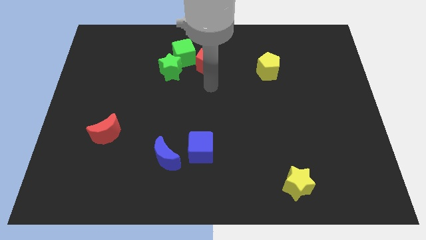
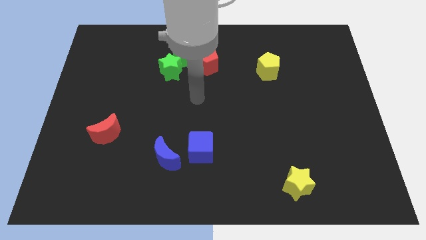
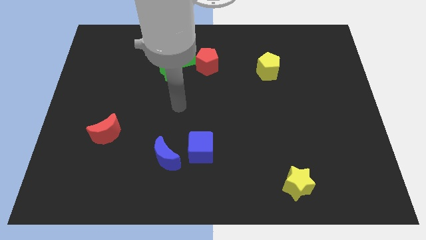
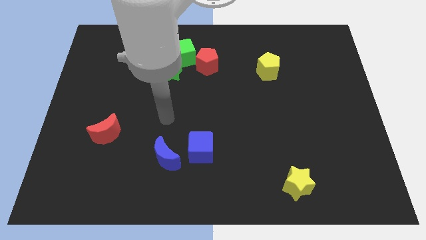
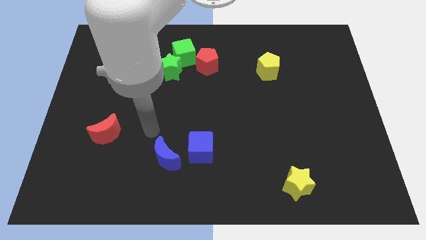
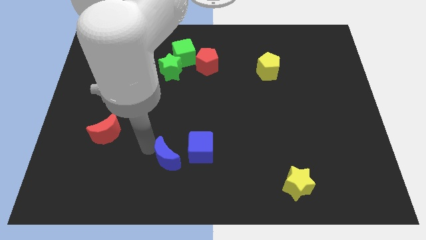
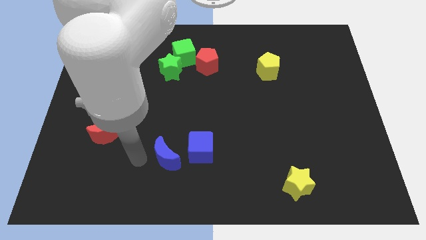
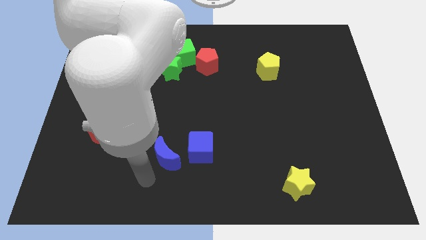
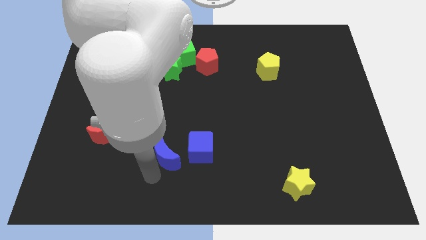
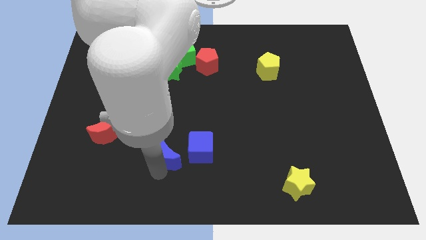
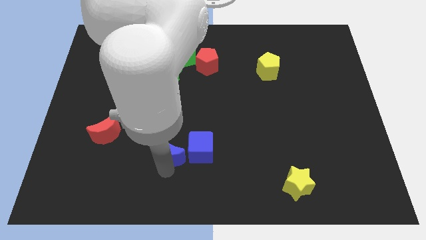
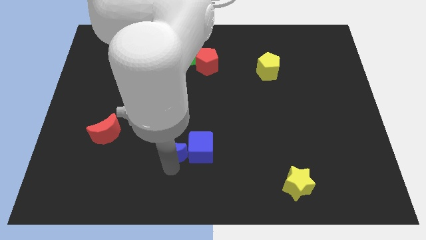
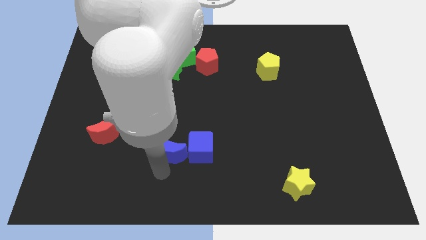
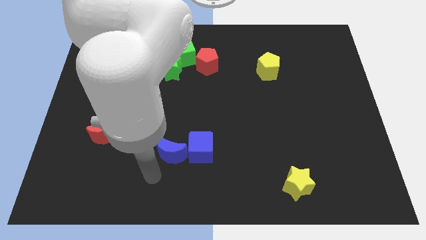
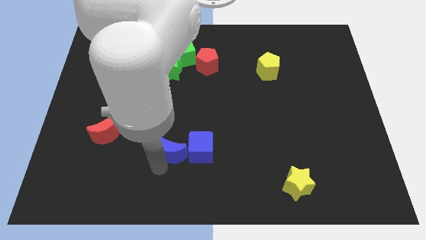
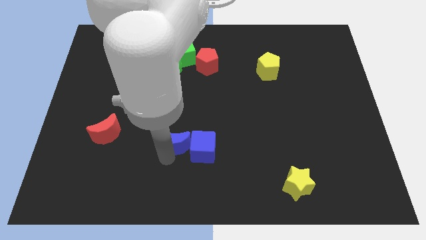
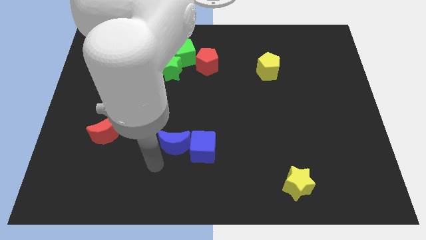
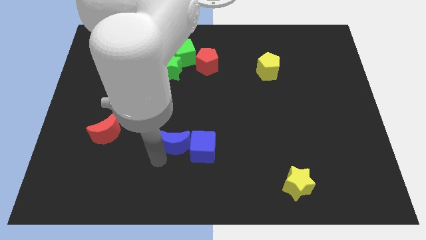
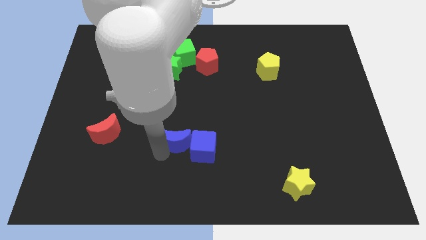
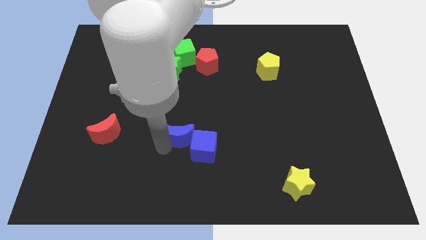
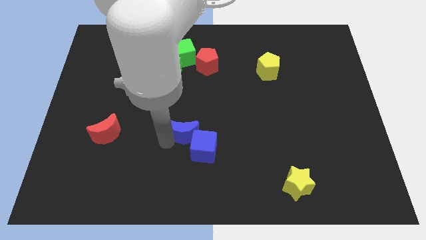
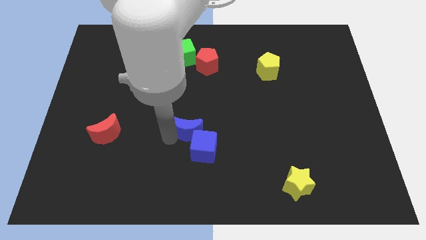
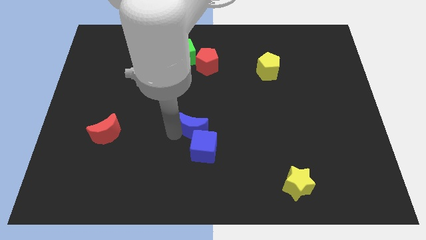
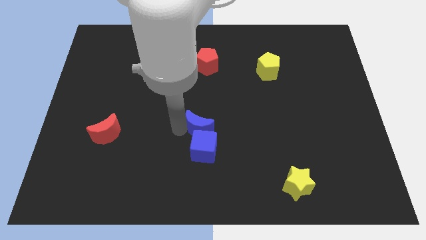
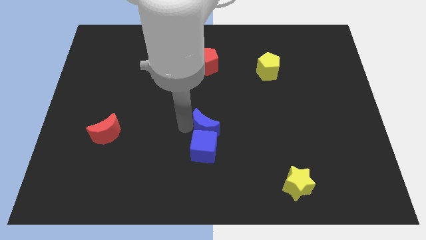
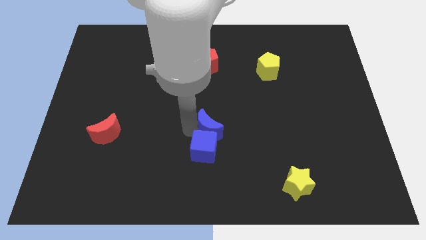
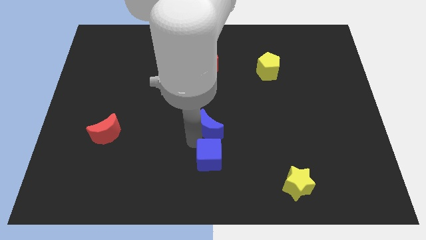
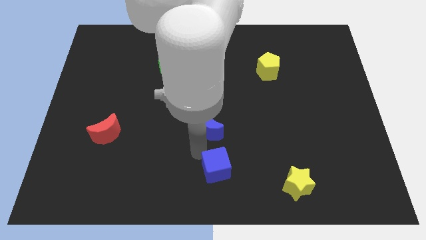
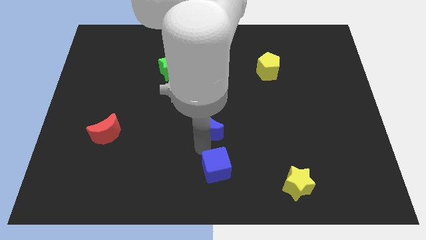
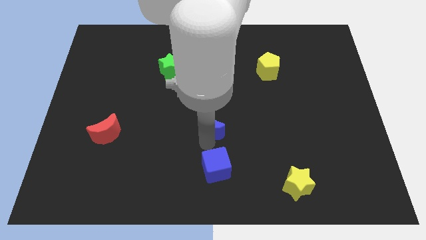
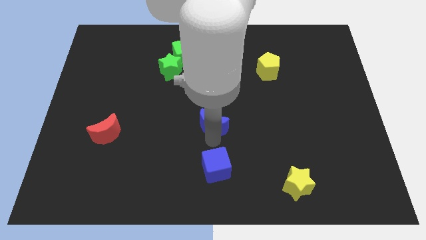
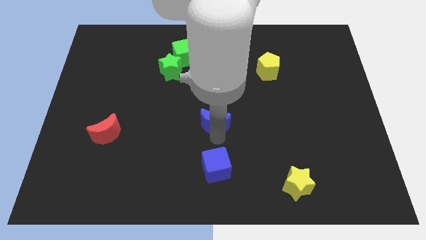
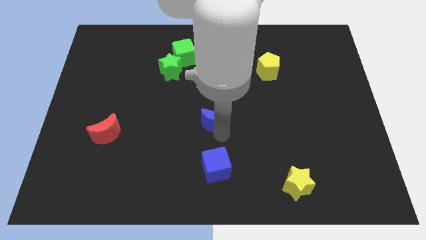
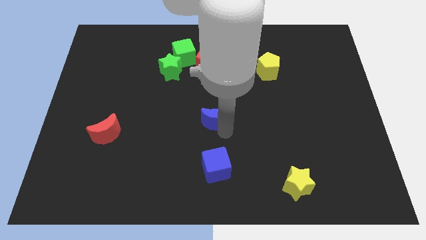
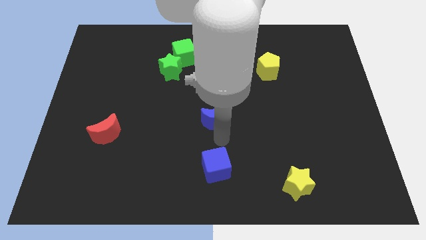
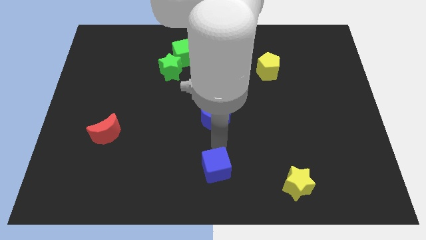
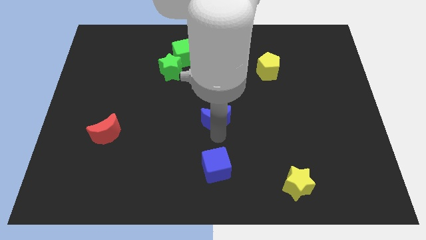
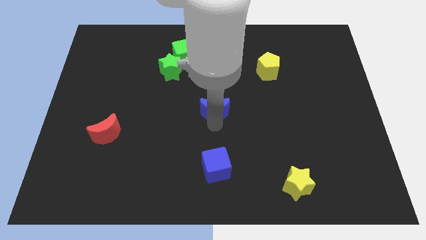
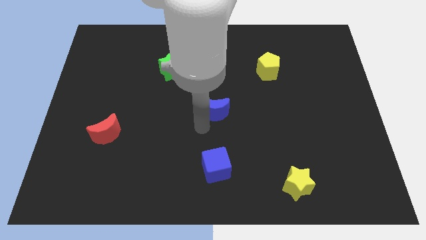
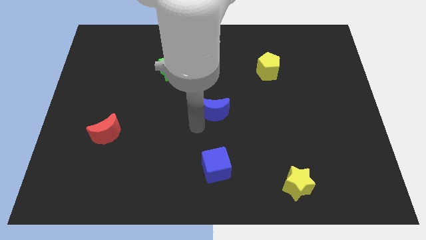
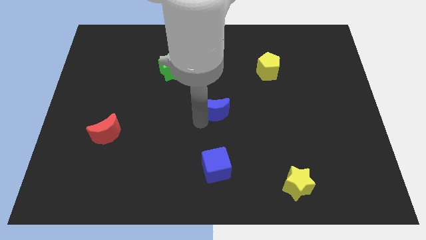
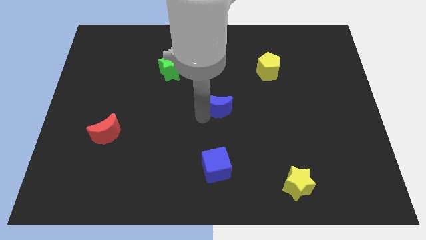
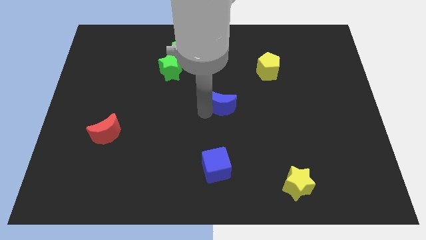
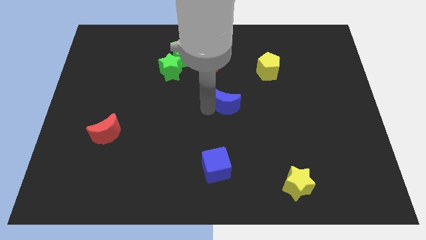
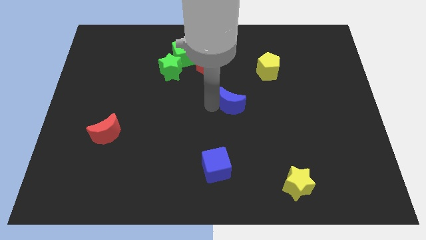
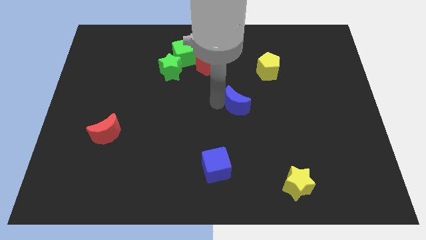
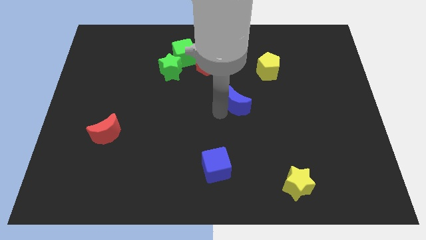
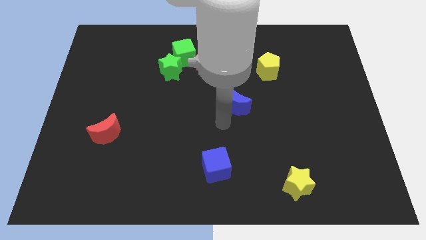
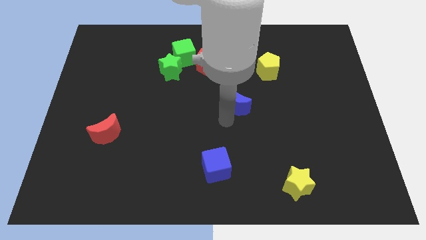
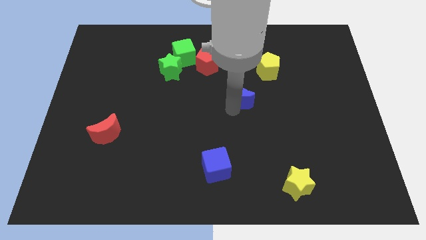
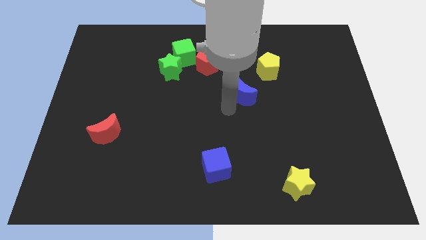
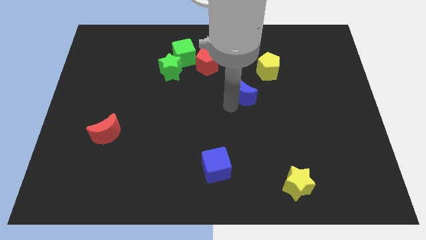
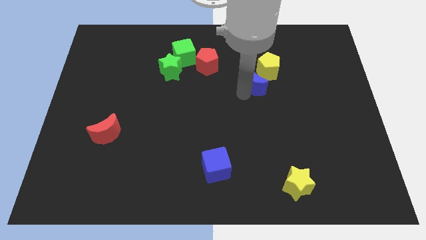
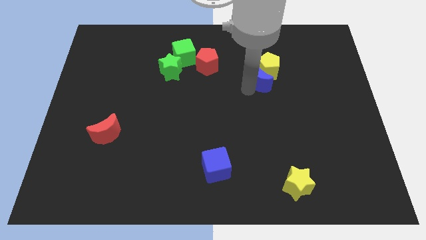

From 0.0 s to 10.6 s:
push the blue moon to the yellow pentagon

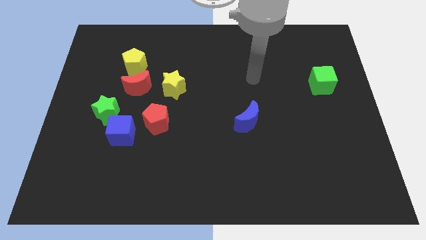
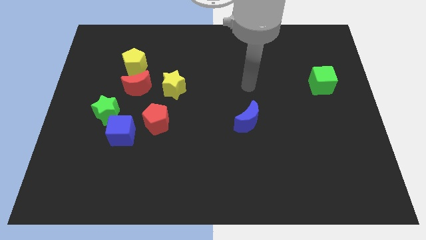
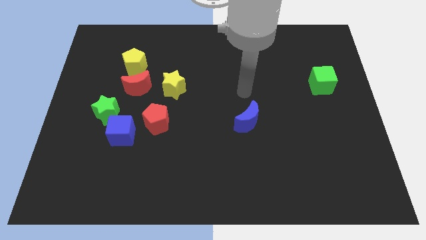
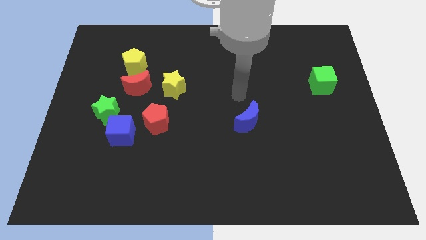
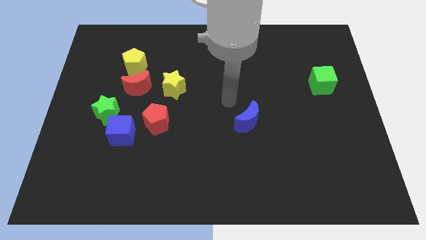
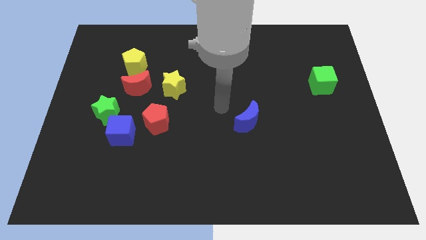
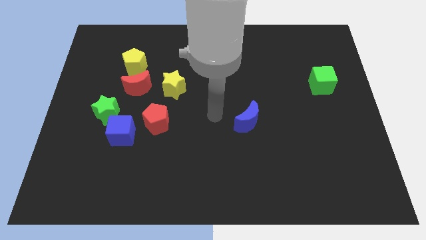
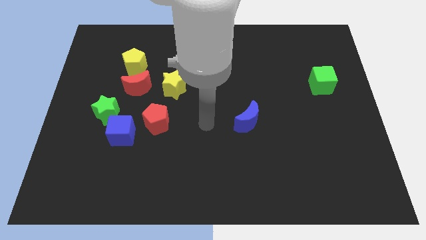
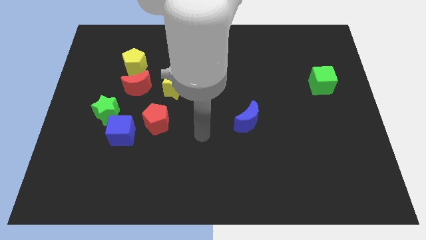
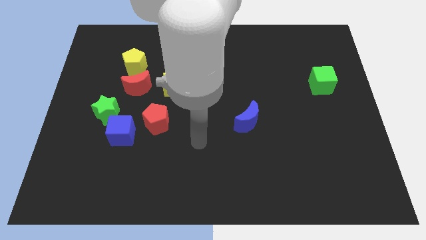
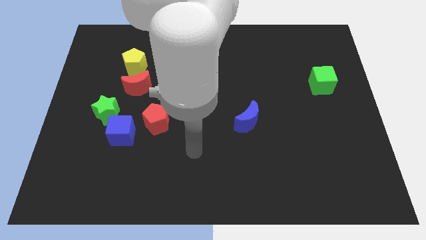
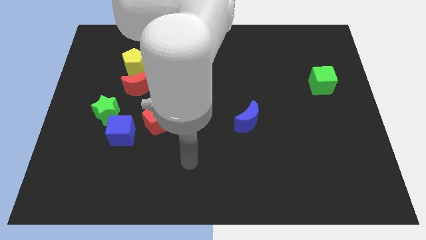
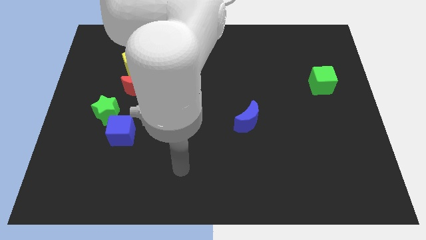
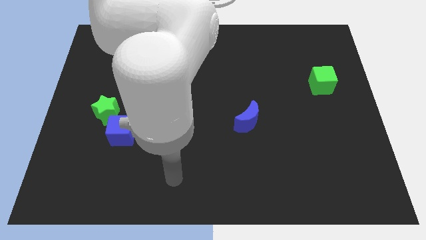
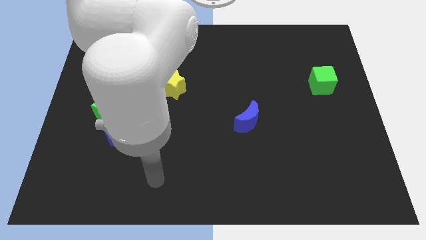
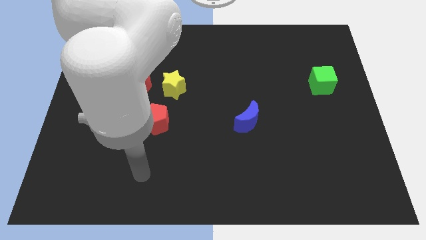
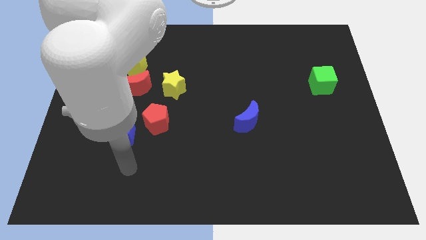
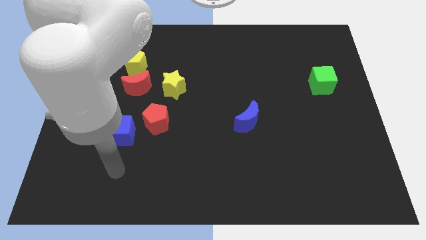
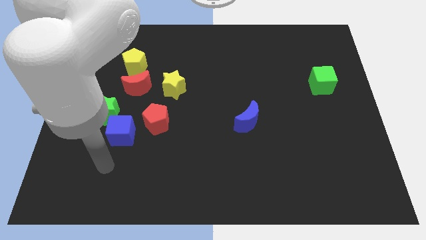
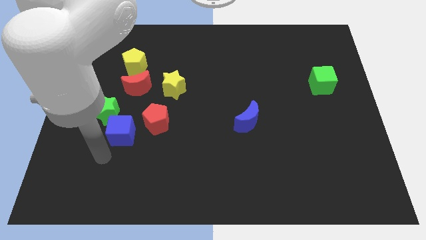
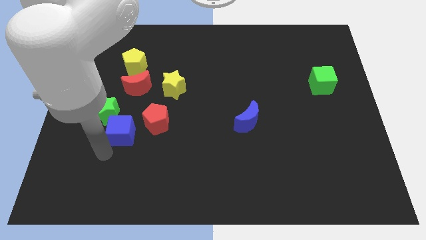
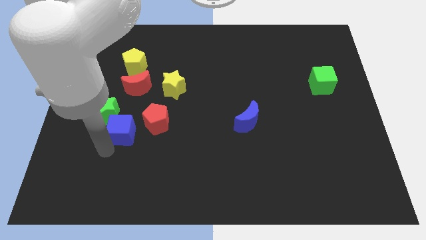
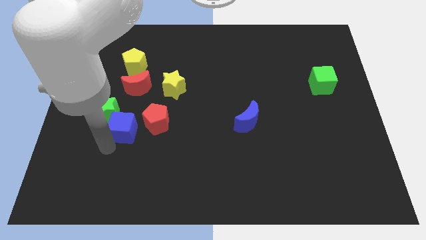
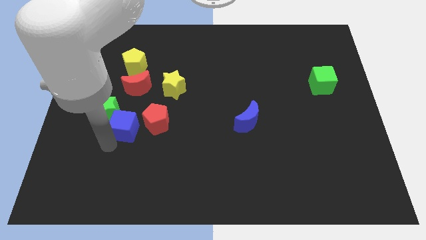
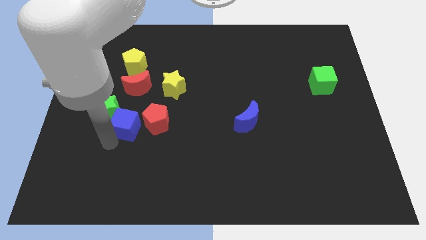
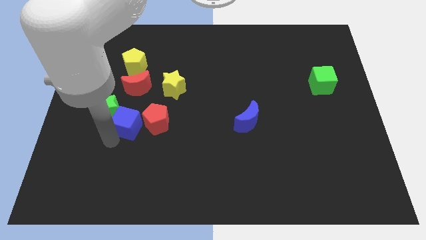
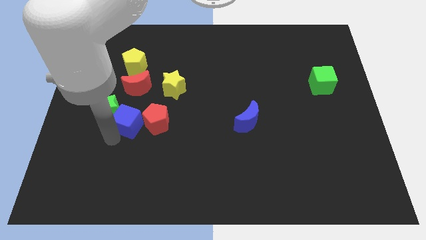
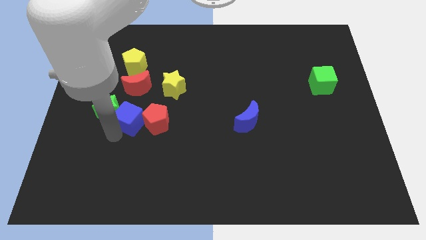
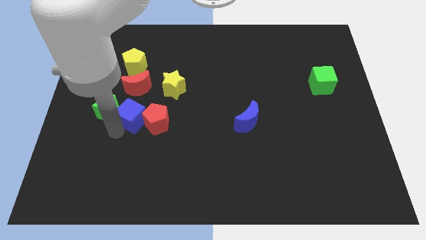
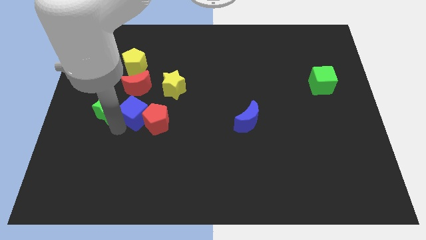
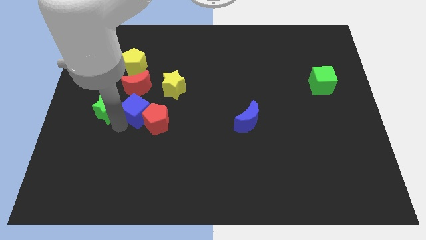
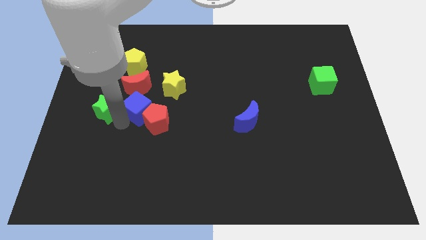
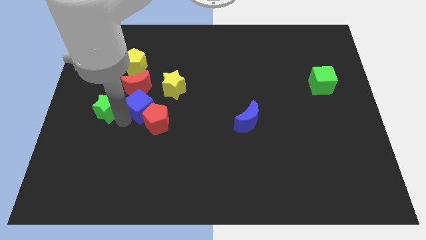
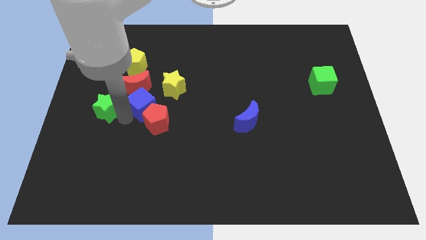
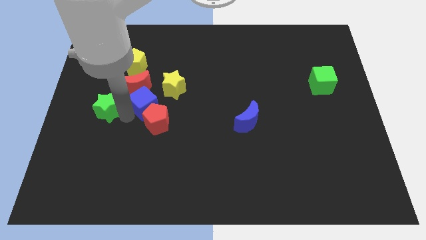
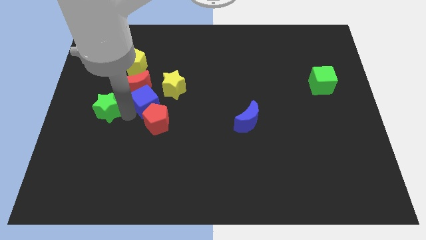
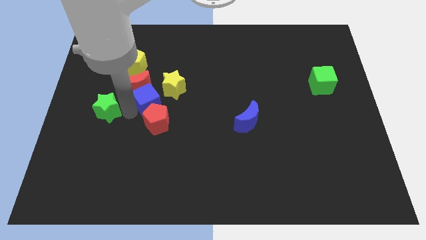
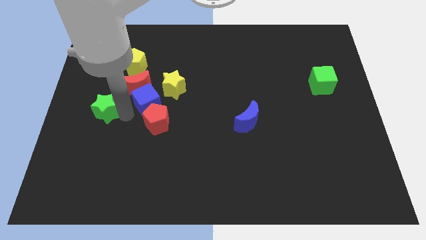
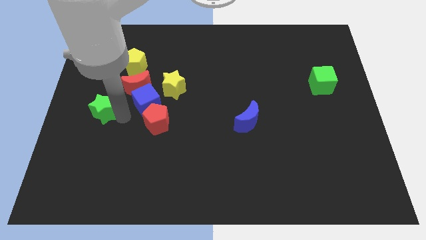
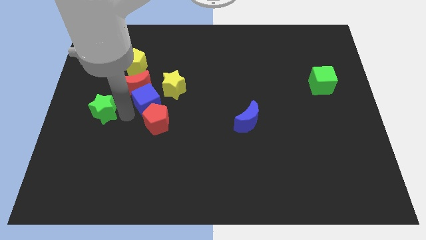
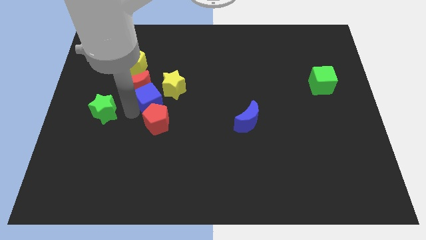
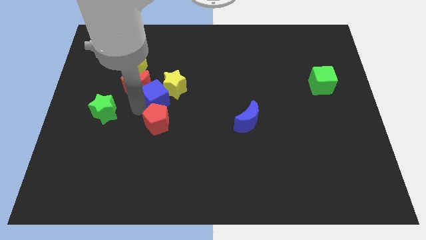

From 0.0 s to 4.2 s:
move the blue cube next to the yellow star
